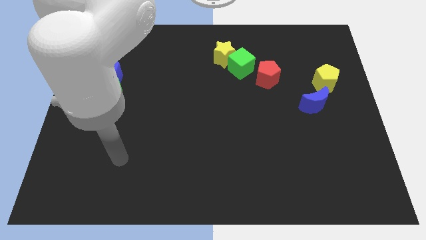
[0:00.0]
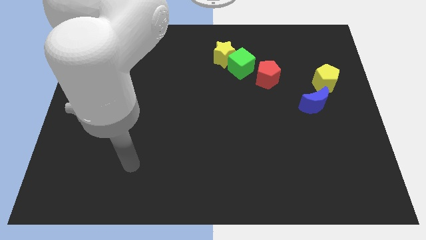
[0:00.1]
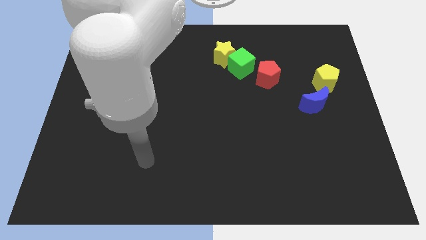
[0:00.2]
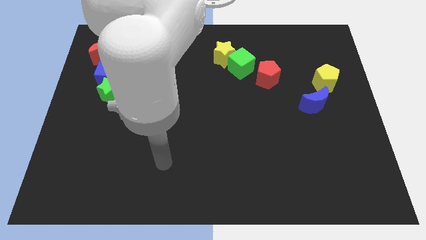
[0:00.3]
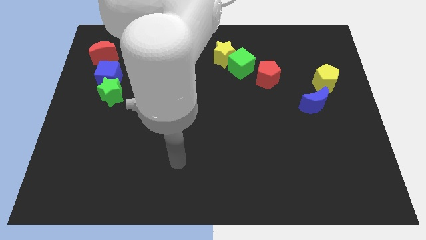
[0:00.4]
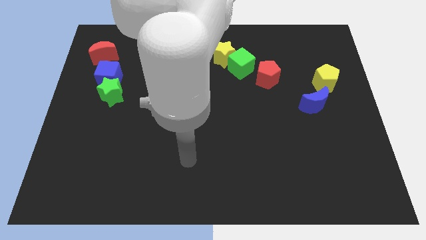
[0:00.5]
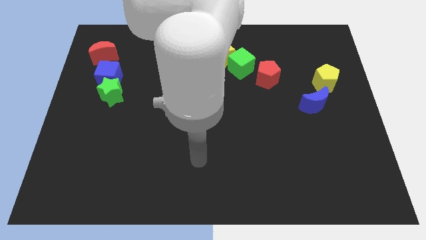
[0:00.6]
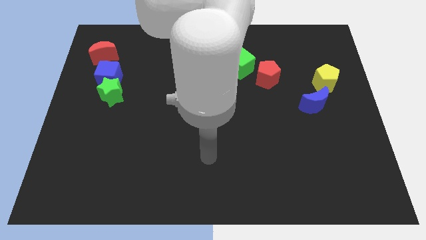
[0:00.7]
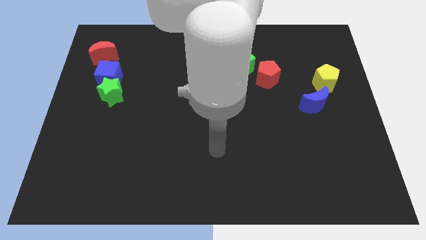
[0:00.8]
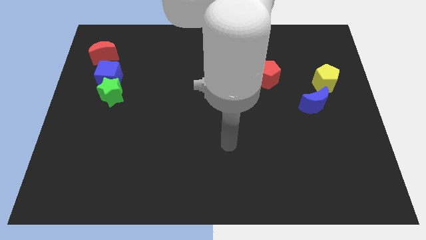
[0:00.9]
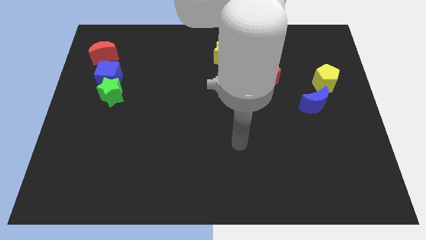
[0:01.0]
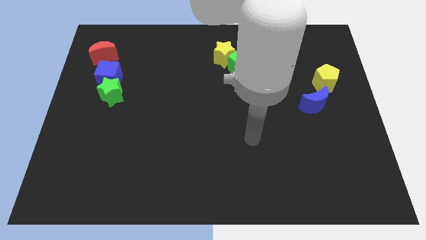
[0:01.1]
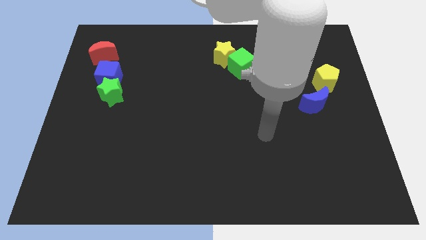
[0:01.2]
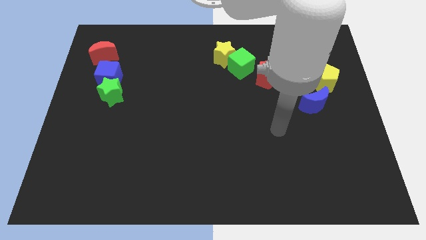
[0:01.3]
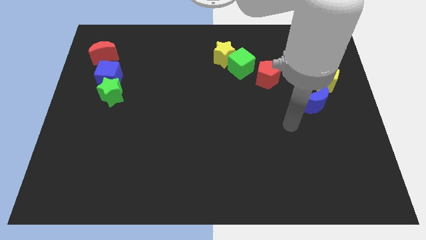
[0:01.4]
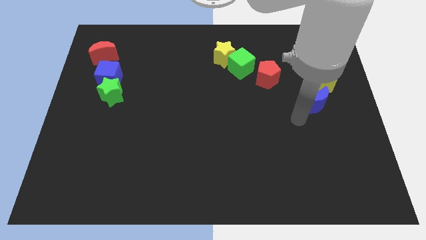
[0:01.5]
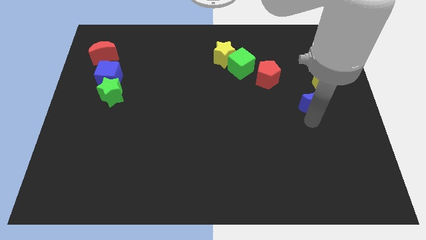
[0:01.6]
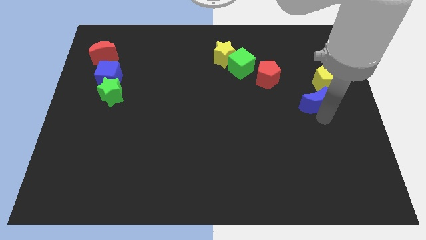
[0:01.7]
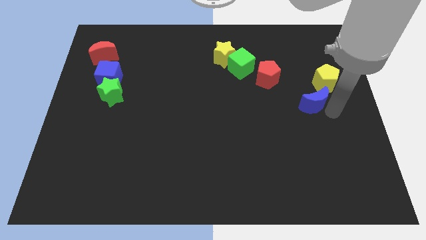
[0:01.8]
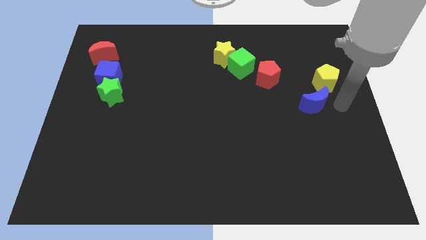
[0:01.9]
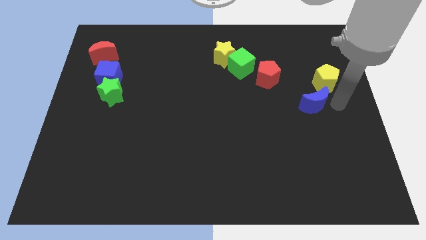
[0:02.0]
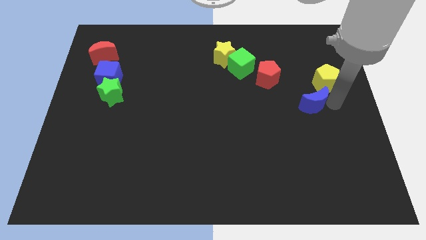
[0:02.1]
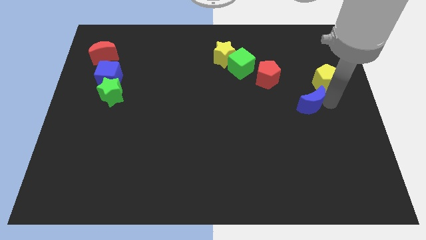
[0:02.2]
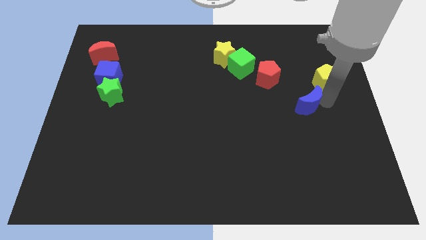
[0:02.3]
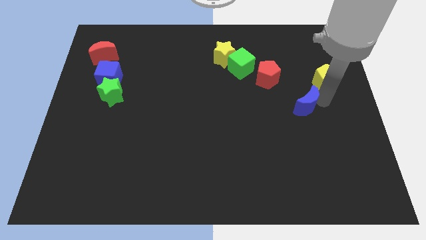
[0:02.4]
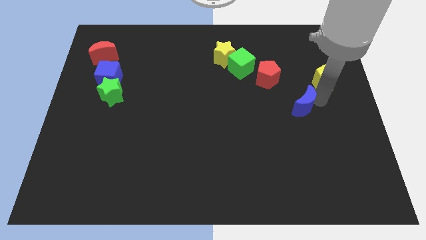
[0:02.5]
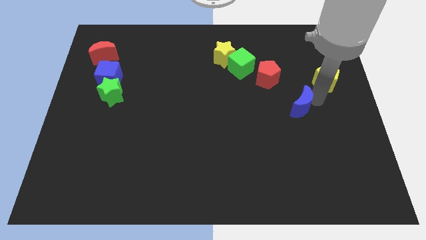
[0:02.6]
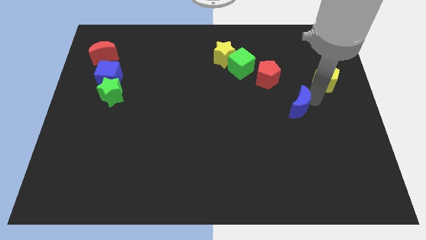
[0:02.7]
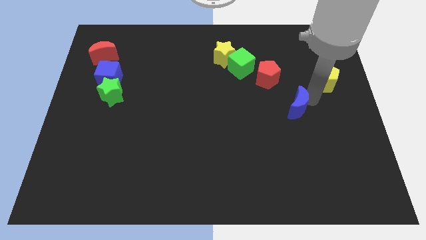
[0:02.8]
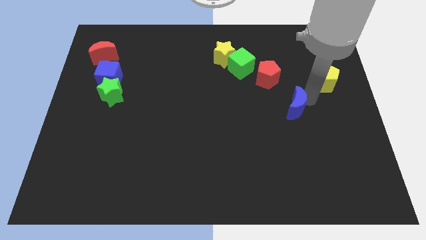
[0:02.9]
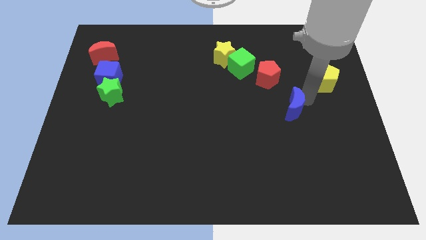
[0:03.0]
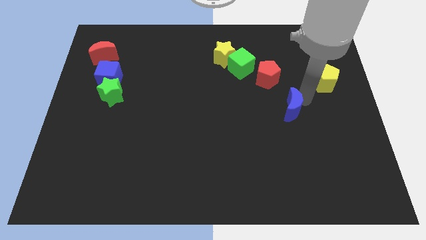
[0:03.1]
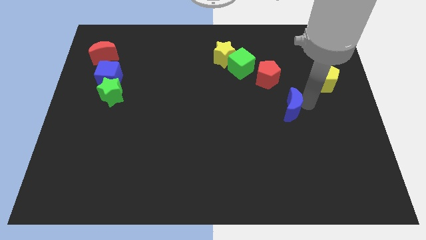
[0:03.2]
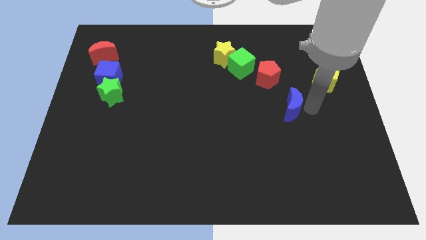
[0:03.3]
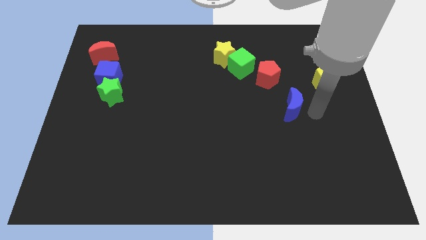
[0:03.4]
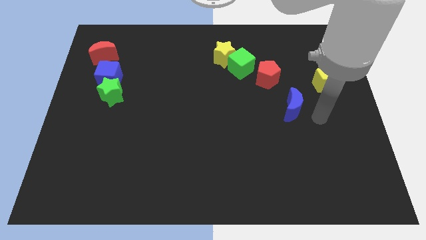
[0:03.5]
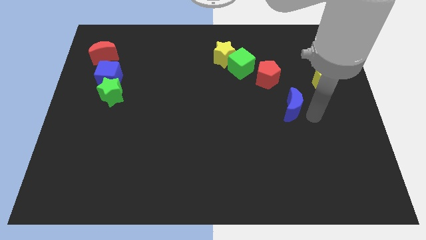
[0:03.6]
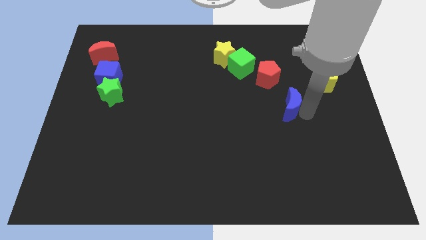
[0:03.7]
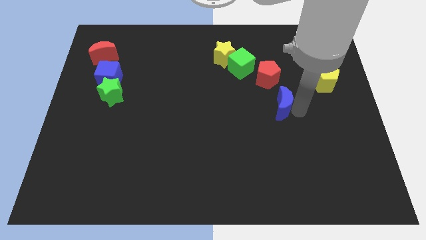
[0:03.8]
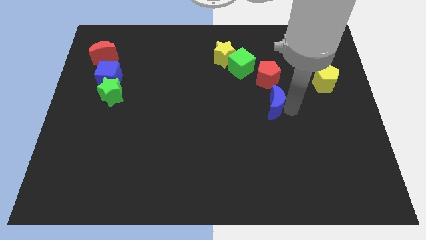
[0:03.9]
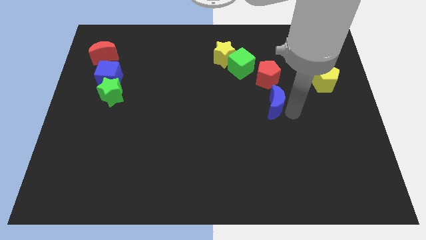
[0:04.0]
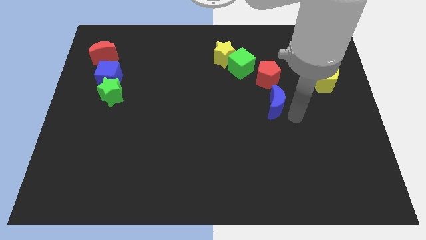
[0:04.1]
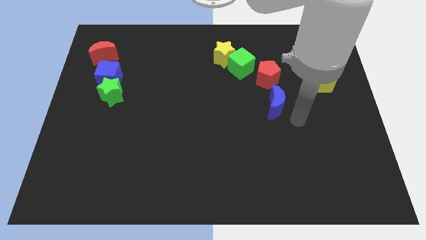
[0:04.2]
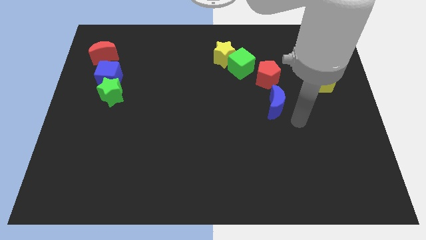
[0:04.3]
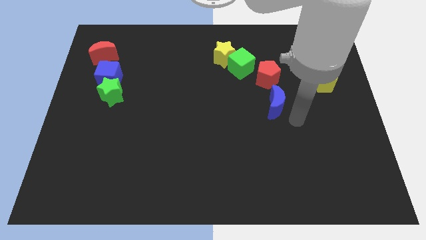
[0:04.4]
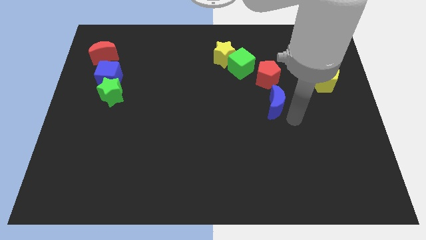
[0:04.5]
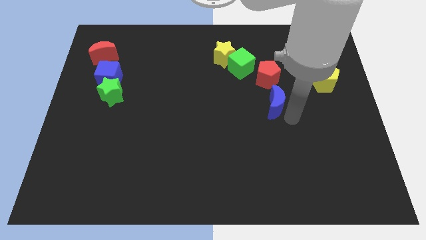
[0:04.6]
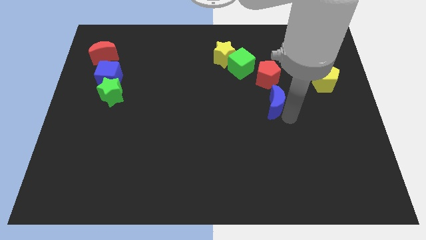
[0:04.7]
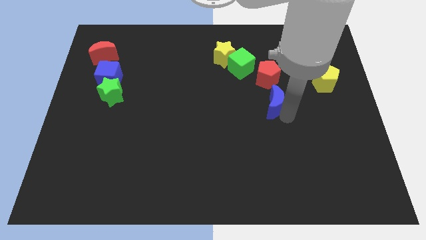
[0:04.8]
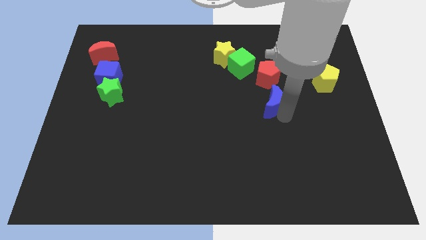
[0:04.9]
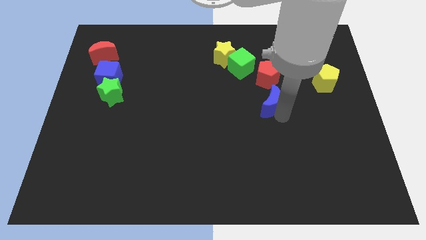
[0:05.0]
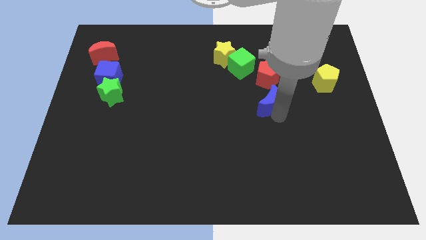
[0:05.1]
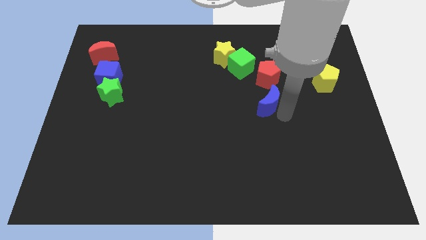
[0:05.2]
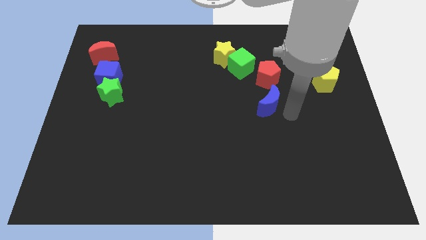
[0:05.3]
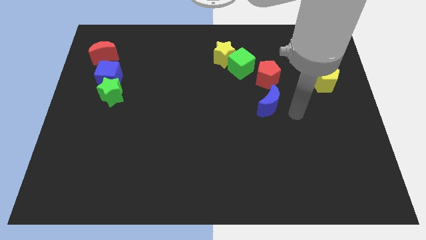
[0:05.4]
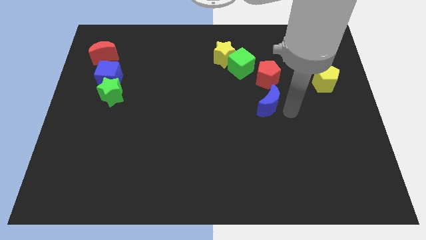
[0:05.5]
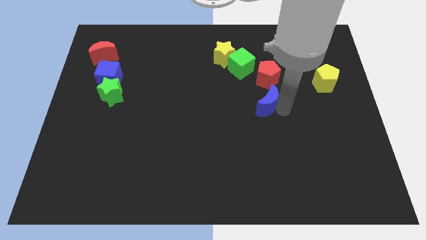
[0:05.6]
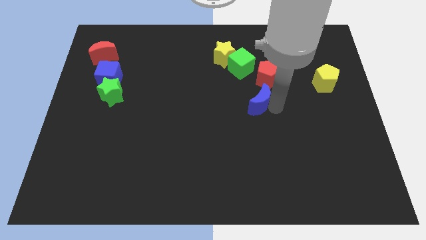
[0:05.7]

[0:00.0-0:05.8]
slide the blue moon to the bottom of the green cube

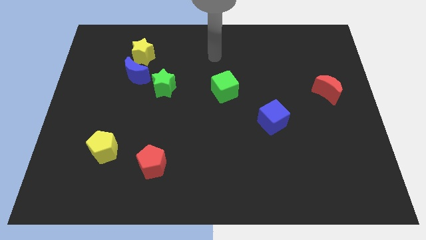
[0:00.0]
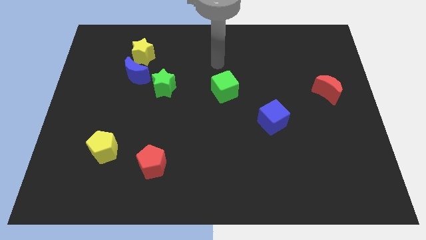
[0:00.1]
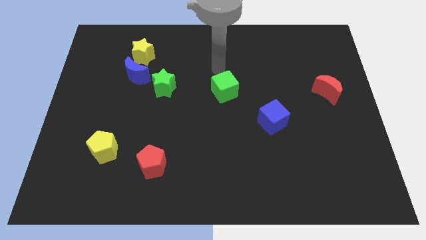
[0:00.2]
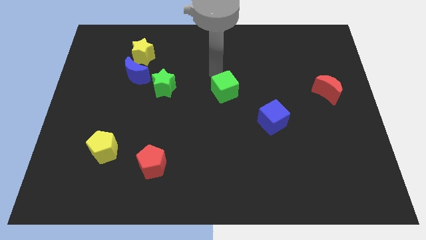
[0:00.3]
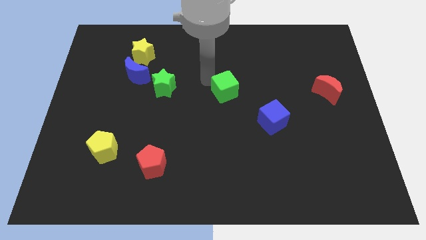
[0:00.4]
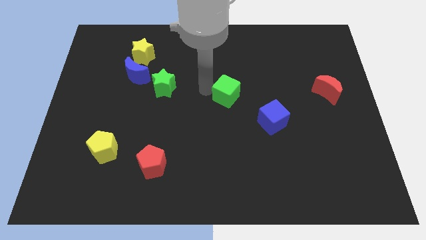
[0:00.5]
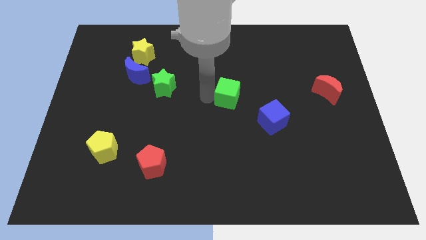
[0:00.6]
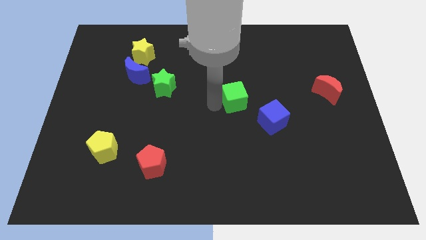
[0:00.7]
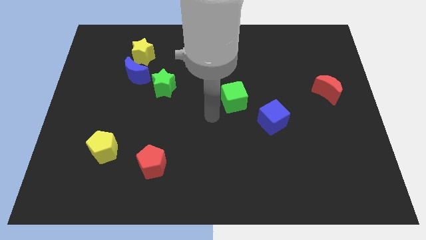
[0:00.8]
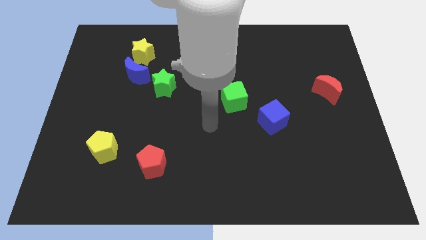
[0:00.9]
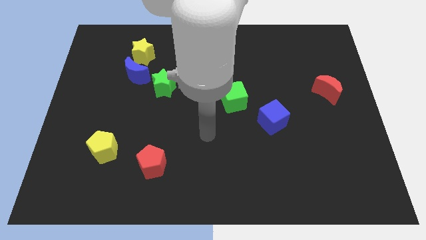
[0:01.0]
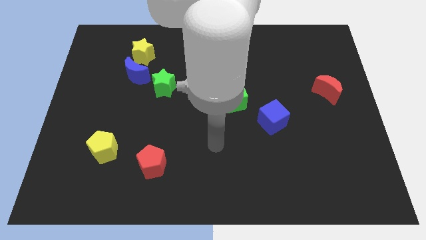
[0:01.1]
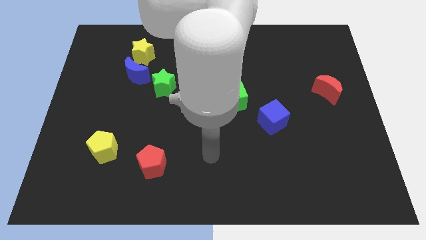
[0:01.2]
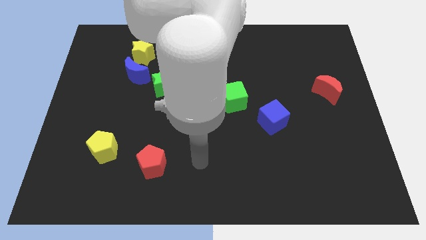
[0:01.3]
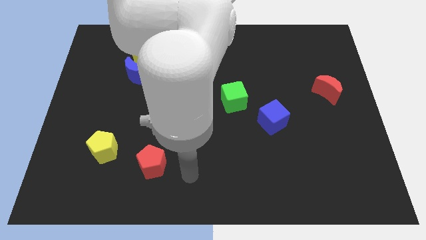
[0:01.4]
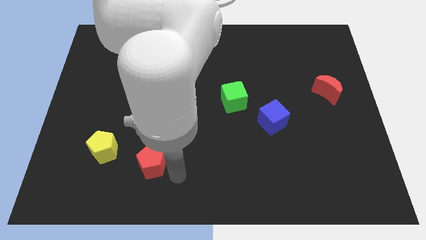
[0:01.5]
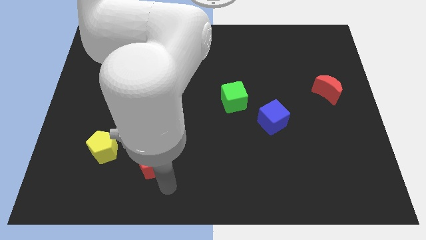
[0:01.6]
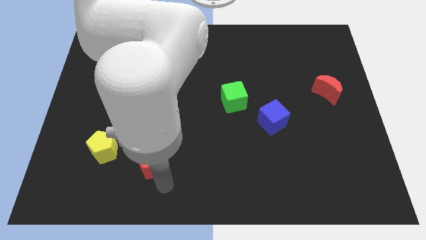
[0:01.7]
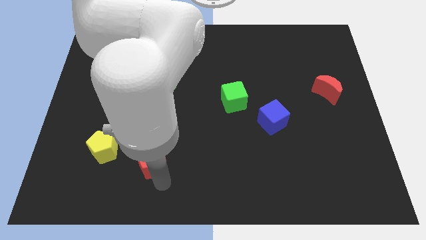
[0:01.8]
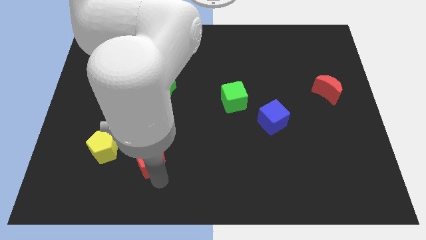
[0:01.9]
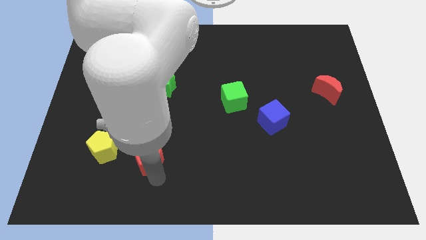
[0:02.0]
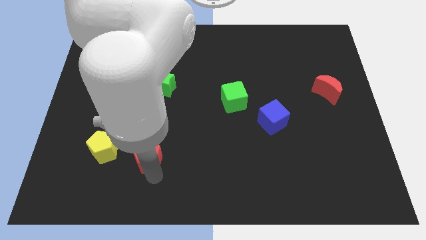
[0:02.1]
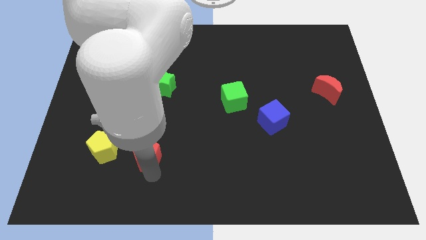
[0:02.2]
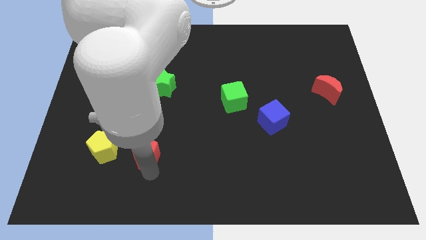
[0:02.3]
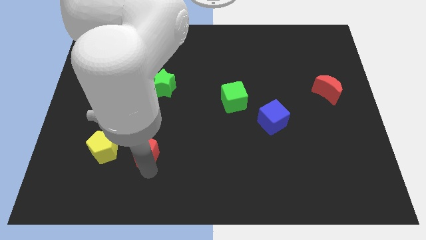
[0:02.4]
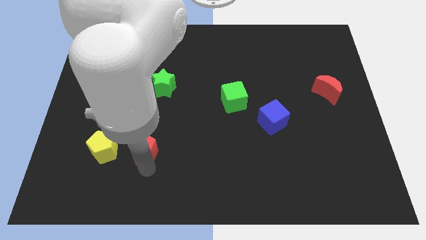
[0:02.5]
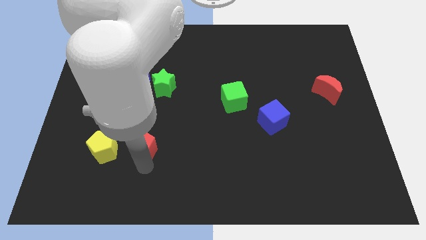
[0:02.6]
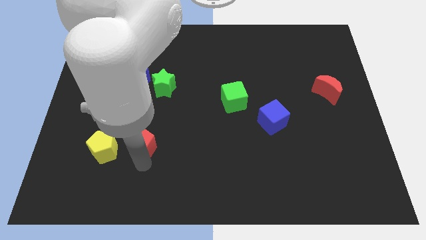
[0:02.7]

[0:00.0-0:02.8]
put the red pentagon to the top right of the yellow pentagon
